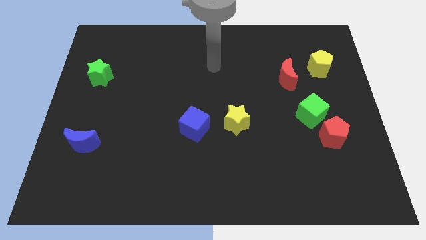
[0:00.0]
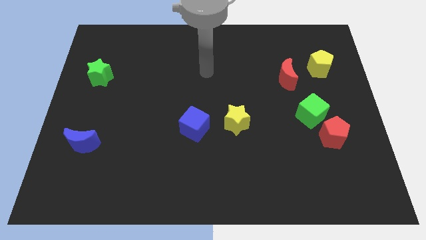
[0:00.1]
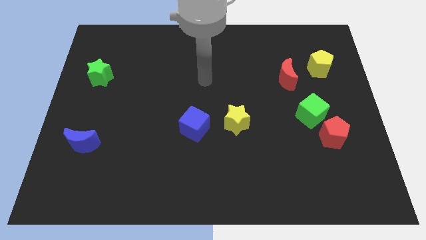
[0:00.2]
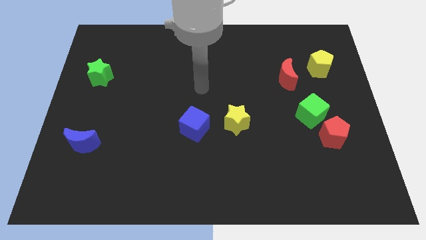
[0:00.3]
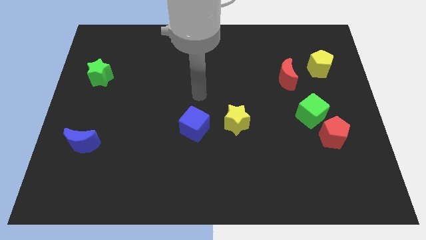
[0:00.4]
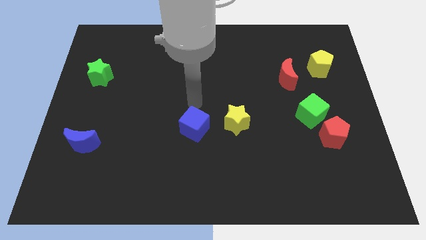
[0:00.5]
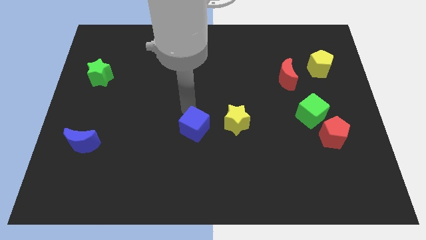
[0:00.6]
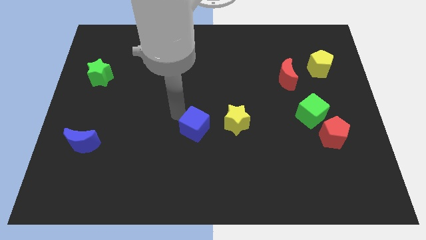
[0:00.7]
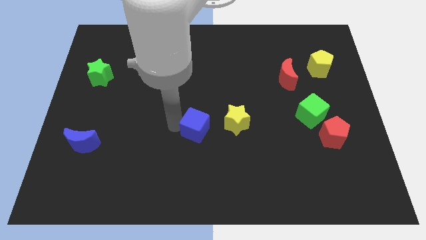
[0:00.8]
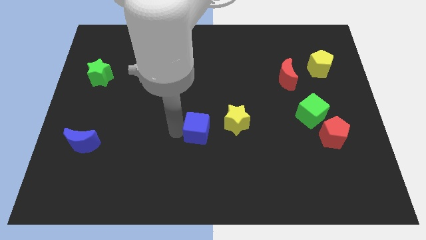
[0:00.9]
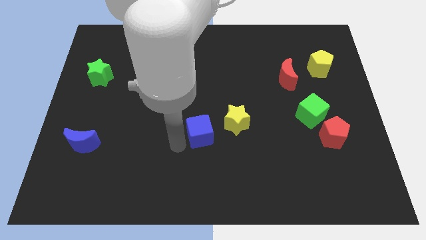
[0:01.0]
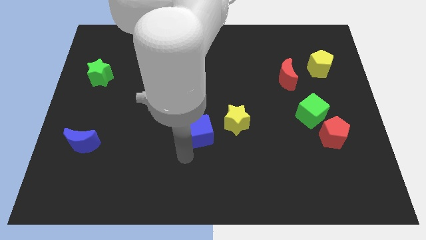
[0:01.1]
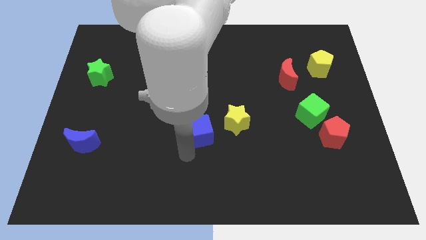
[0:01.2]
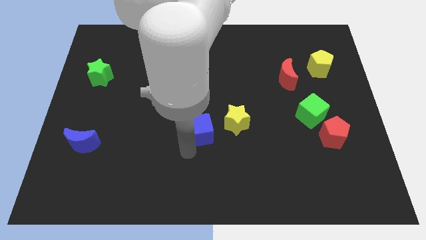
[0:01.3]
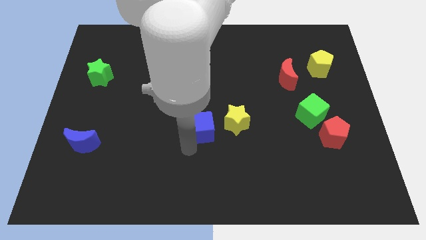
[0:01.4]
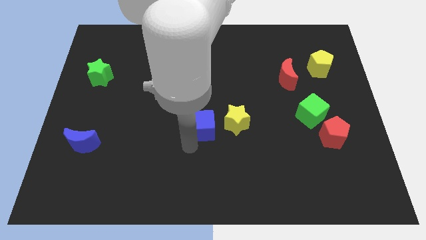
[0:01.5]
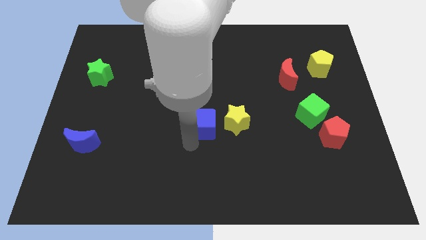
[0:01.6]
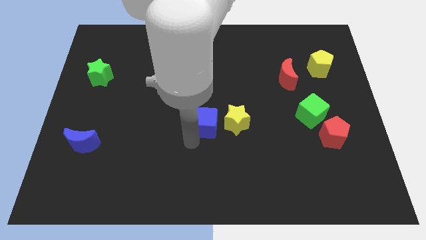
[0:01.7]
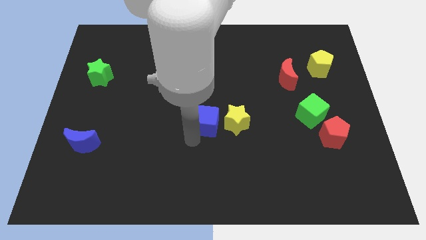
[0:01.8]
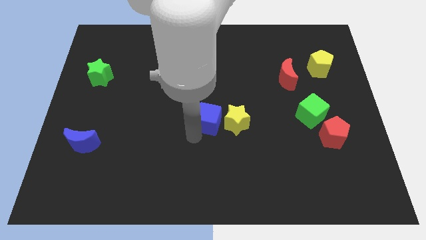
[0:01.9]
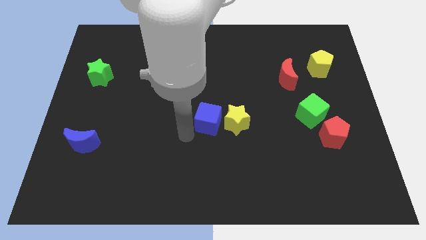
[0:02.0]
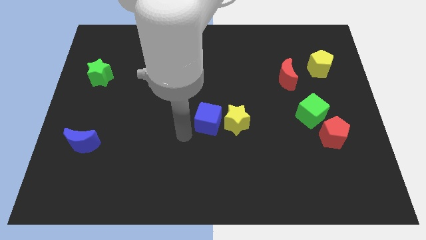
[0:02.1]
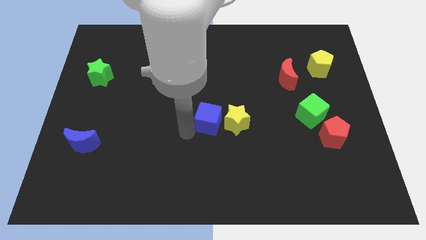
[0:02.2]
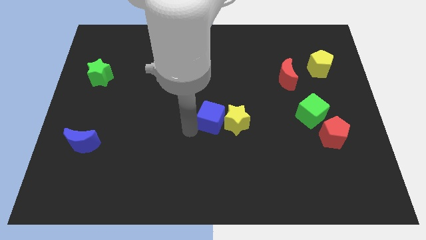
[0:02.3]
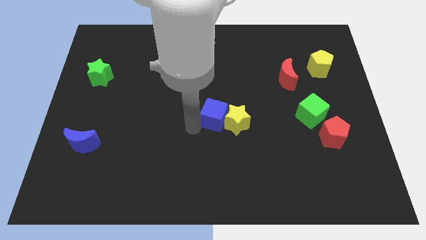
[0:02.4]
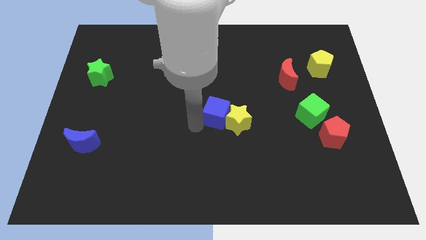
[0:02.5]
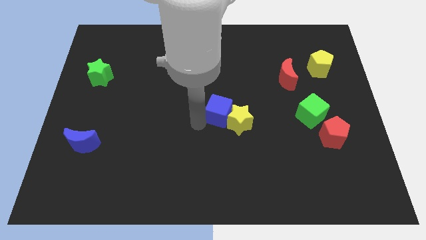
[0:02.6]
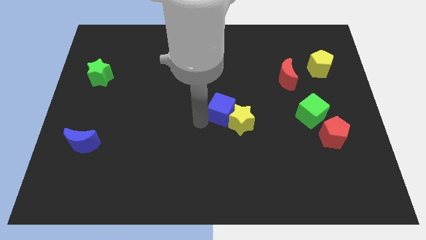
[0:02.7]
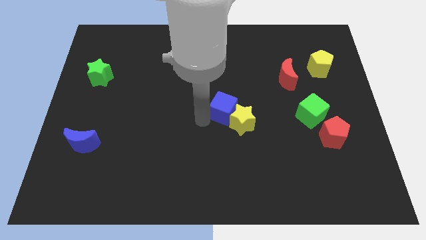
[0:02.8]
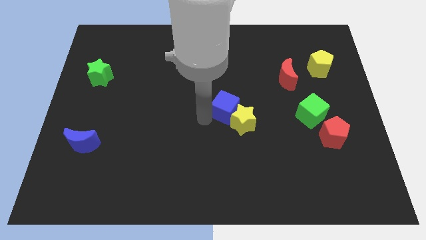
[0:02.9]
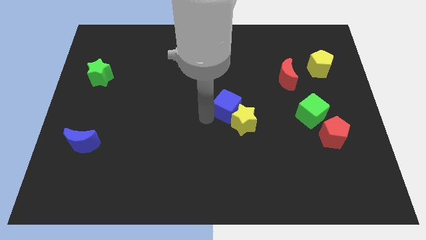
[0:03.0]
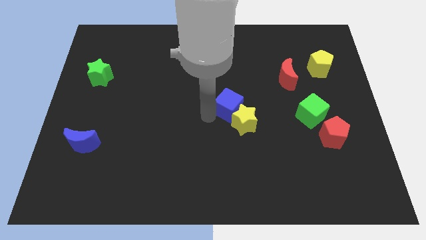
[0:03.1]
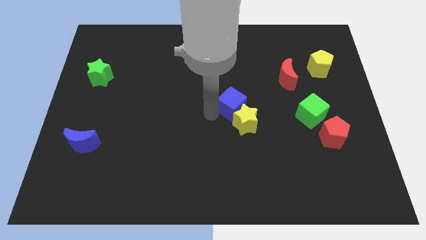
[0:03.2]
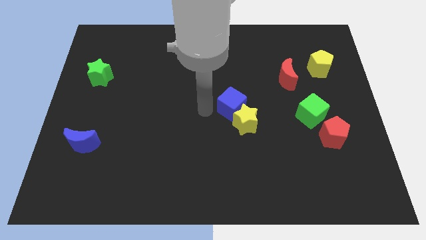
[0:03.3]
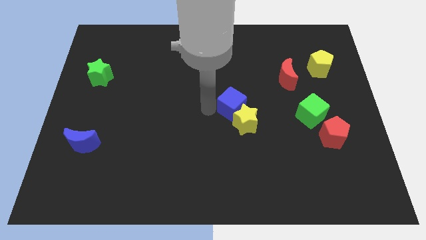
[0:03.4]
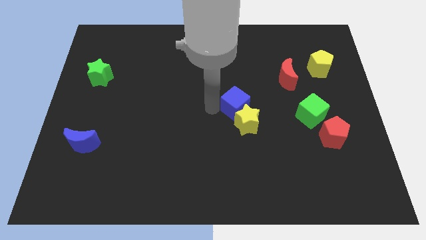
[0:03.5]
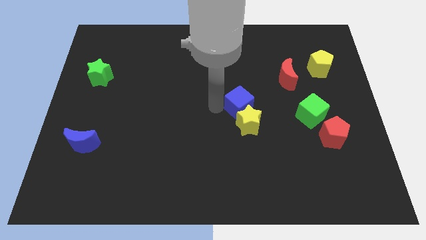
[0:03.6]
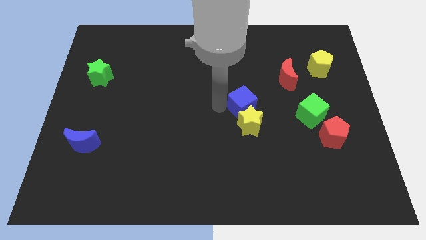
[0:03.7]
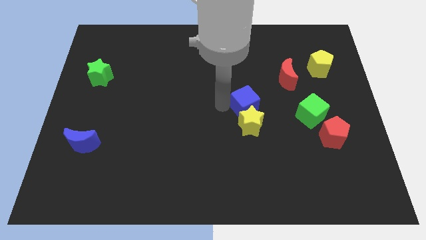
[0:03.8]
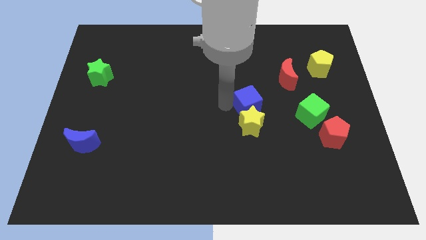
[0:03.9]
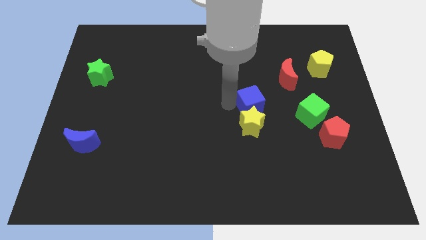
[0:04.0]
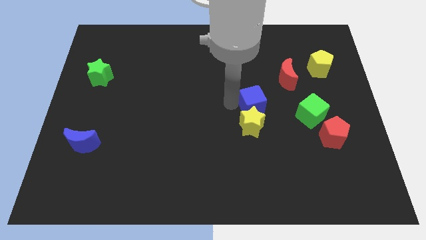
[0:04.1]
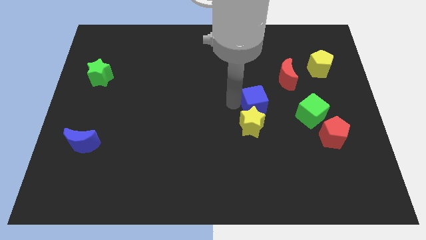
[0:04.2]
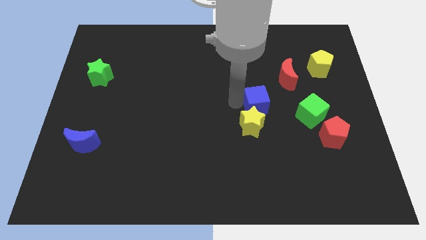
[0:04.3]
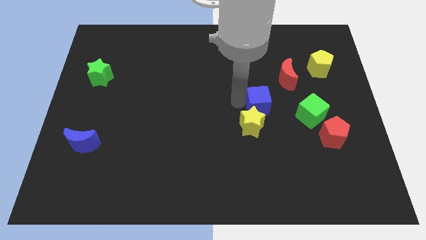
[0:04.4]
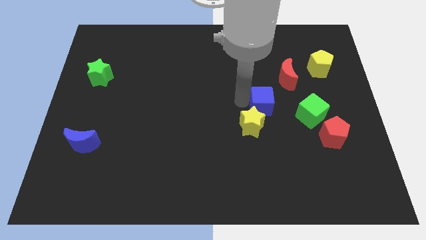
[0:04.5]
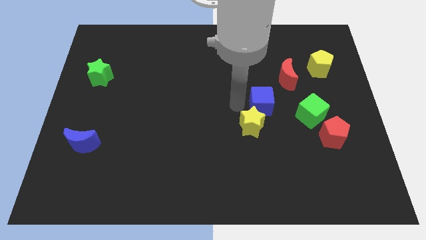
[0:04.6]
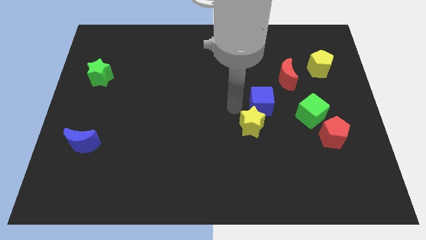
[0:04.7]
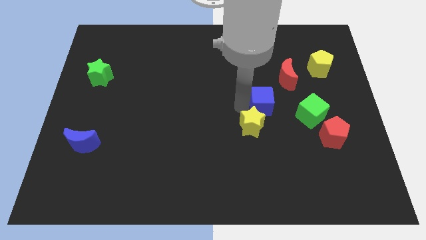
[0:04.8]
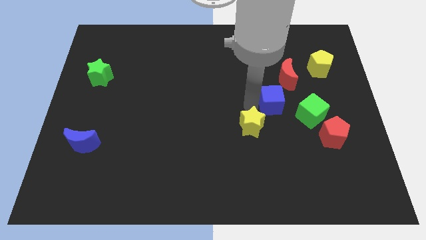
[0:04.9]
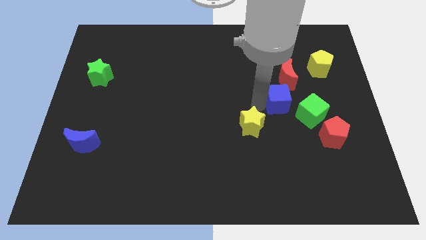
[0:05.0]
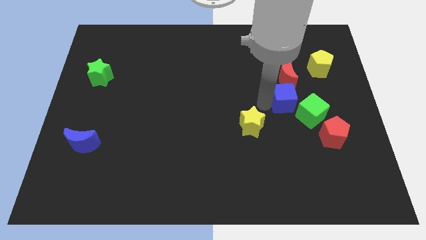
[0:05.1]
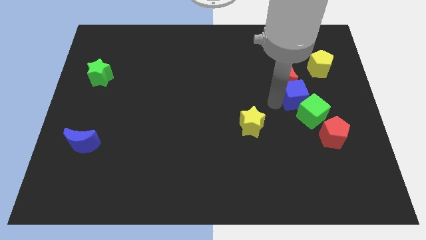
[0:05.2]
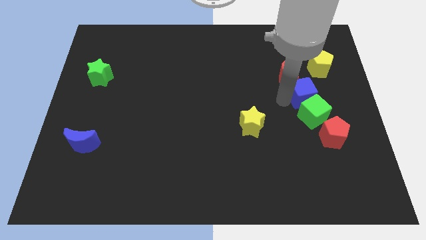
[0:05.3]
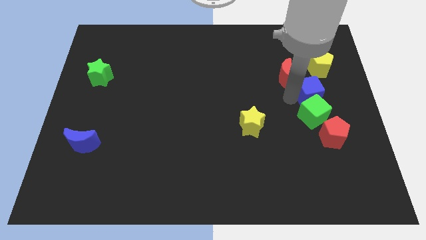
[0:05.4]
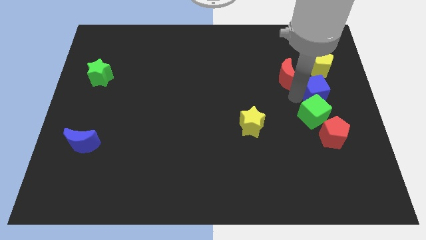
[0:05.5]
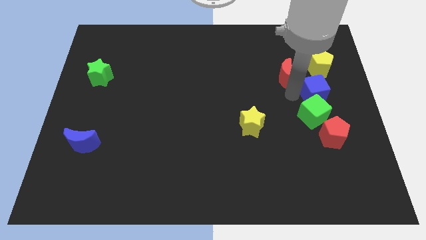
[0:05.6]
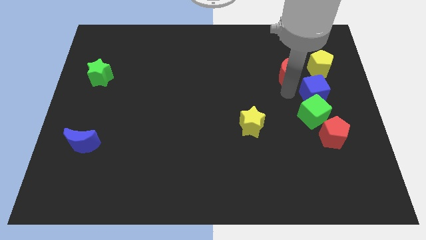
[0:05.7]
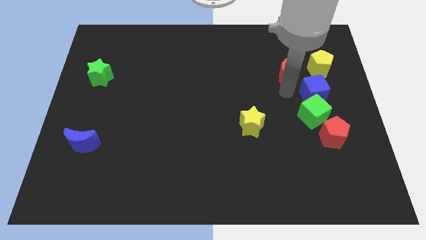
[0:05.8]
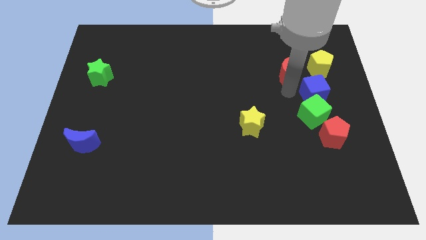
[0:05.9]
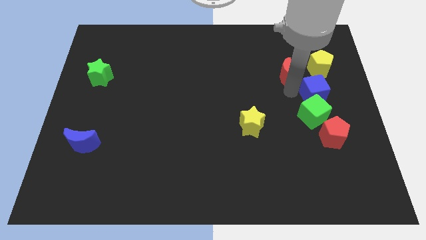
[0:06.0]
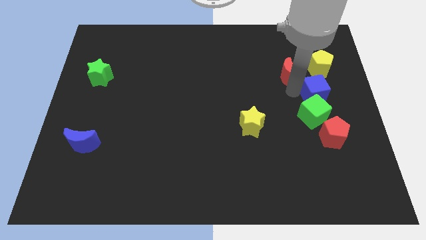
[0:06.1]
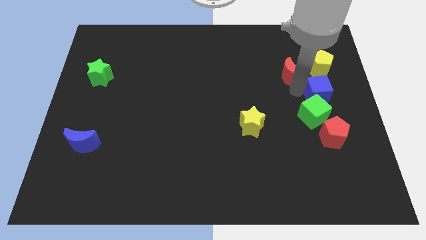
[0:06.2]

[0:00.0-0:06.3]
put the blue cube to the right side
